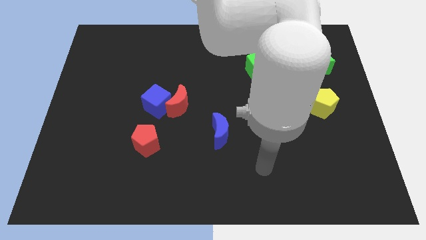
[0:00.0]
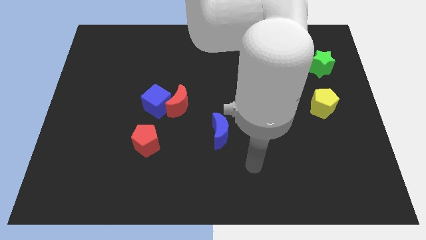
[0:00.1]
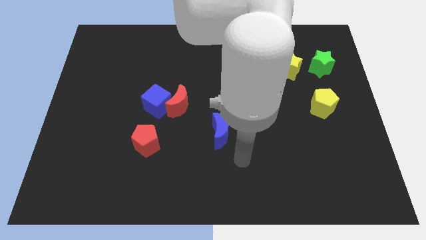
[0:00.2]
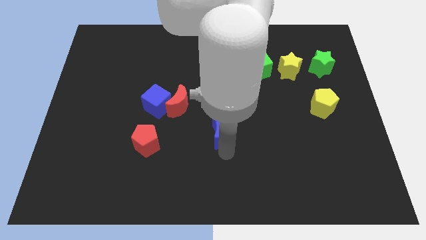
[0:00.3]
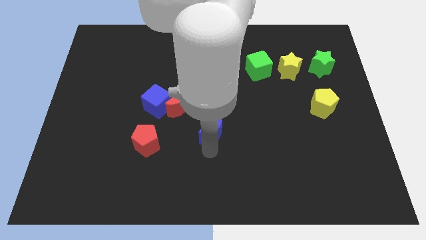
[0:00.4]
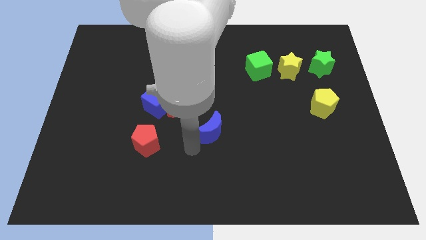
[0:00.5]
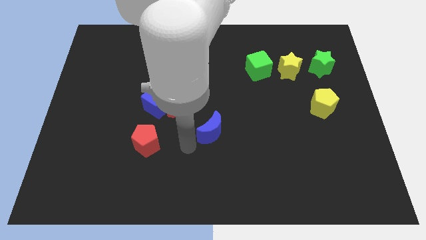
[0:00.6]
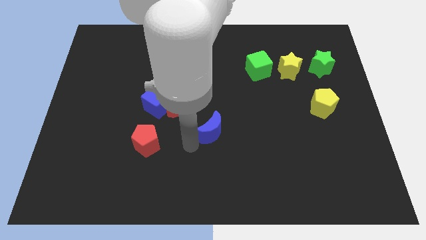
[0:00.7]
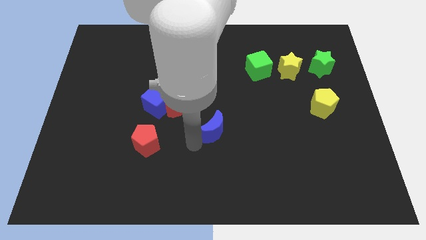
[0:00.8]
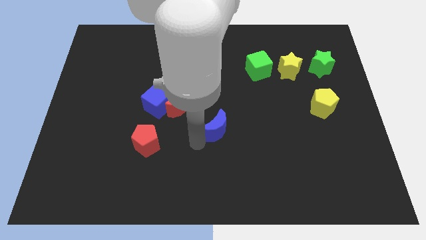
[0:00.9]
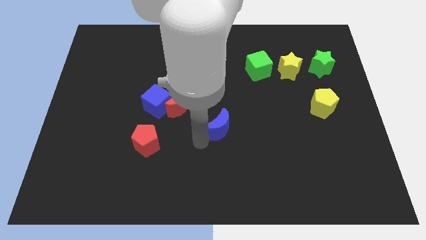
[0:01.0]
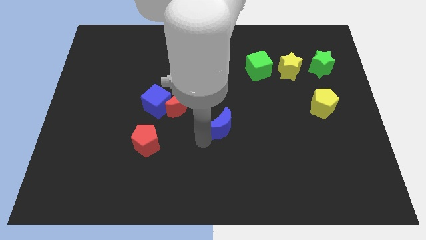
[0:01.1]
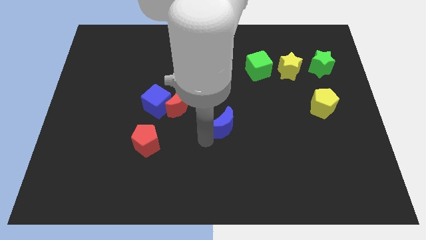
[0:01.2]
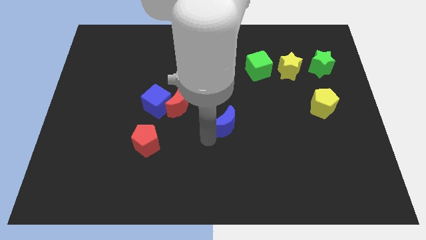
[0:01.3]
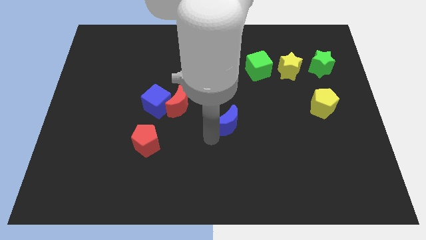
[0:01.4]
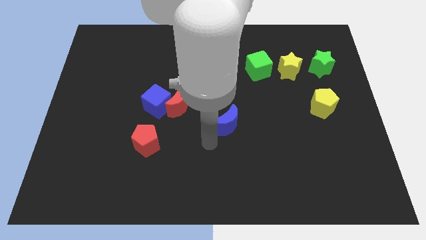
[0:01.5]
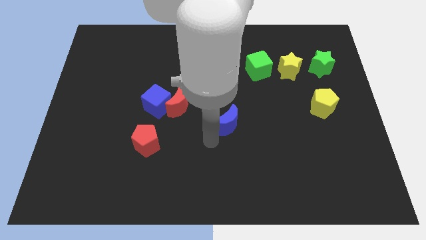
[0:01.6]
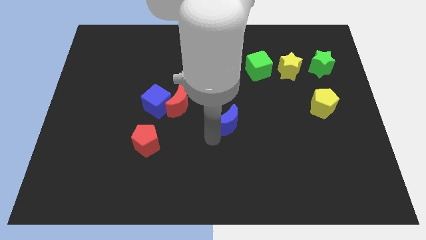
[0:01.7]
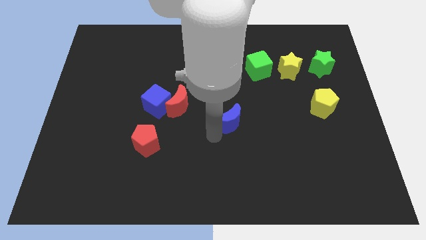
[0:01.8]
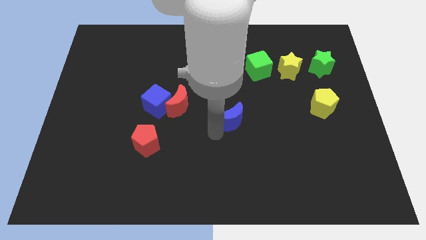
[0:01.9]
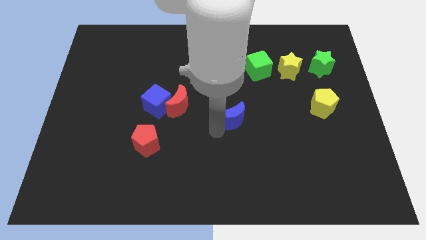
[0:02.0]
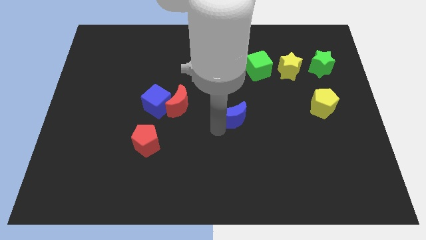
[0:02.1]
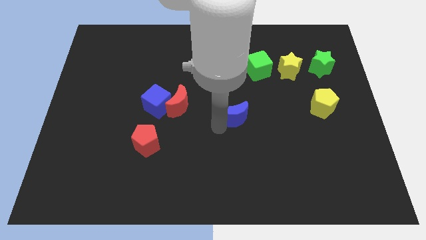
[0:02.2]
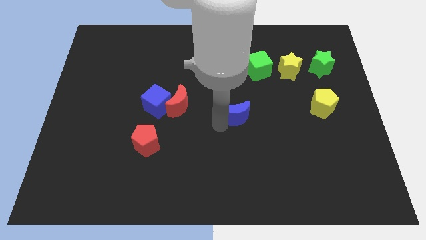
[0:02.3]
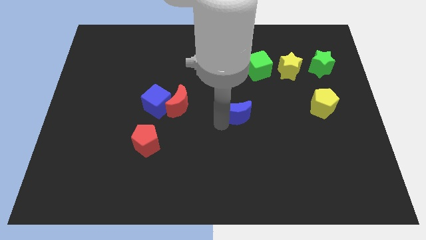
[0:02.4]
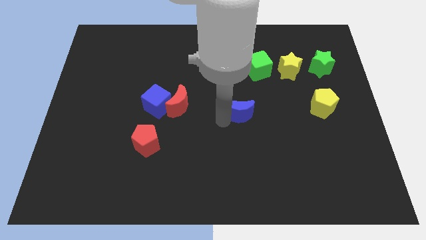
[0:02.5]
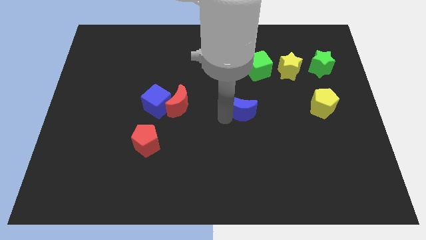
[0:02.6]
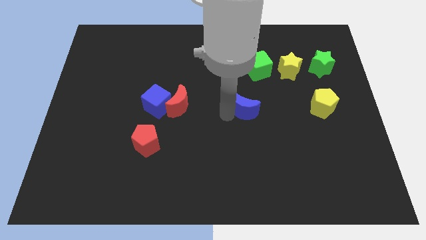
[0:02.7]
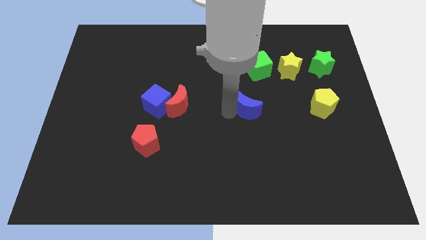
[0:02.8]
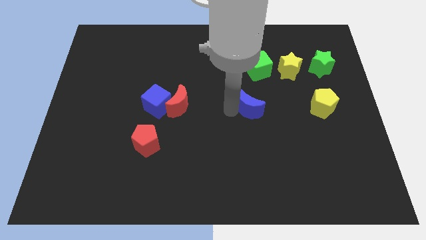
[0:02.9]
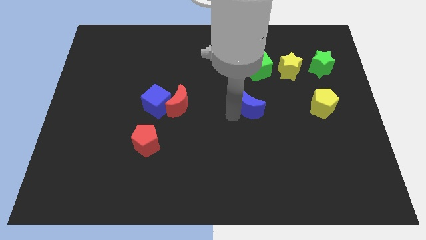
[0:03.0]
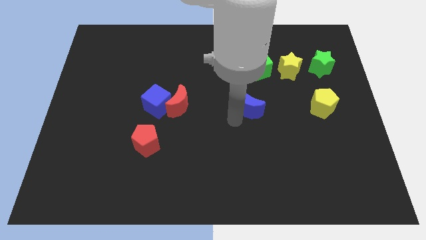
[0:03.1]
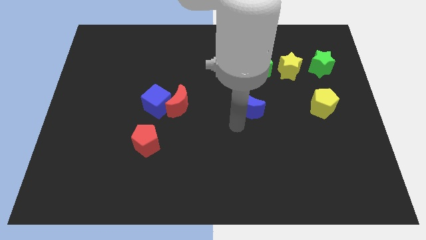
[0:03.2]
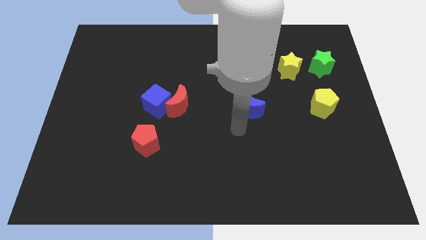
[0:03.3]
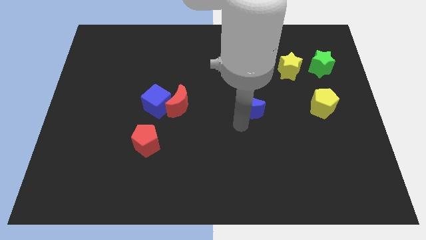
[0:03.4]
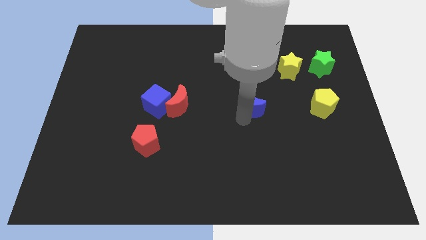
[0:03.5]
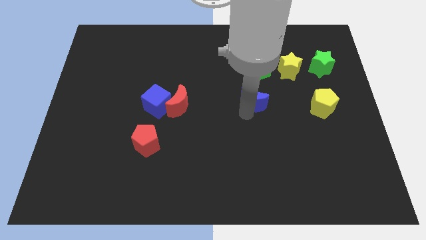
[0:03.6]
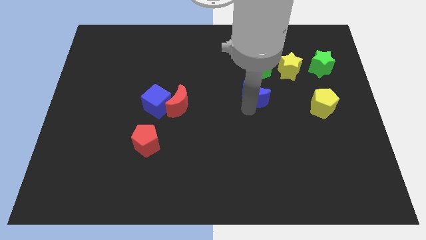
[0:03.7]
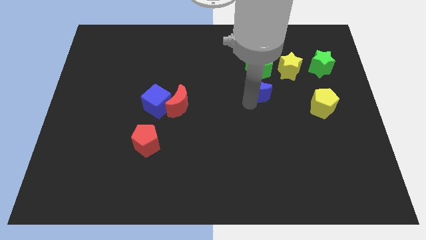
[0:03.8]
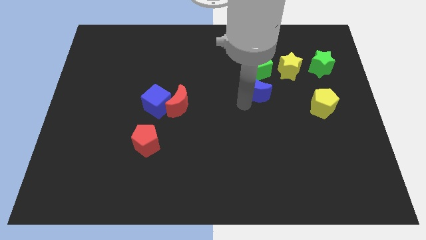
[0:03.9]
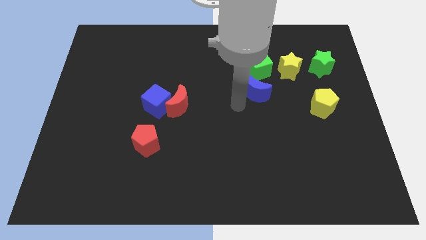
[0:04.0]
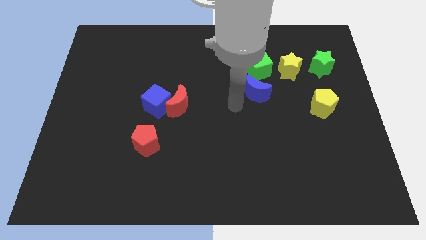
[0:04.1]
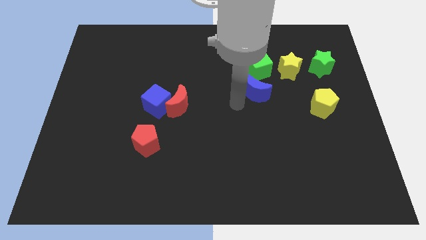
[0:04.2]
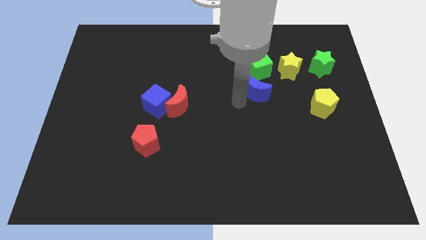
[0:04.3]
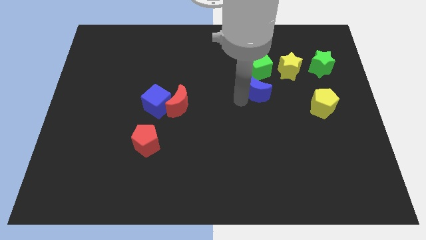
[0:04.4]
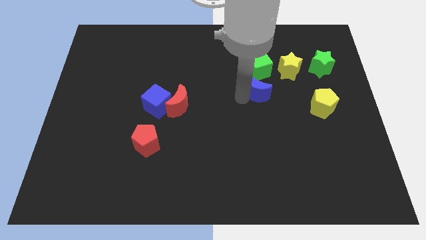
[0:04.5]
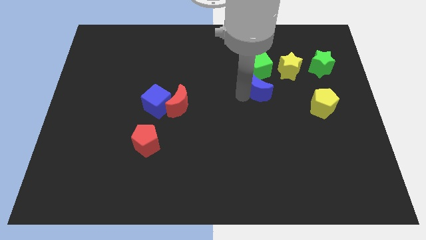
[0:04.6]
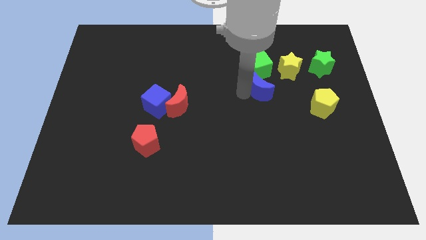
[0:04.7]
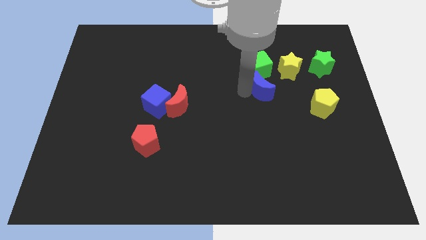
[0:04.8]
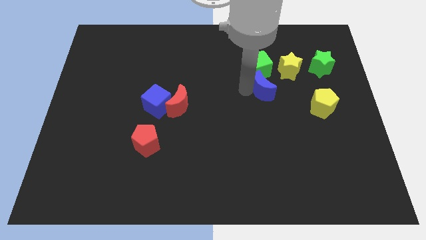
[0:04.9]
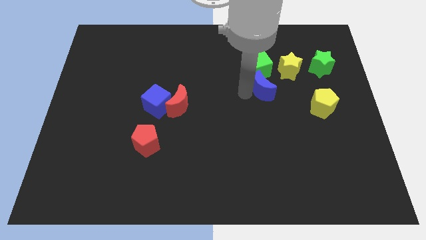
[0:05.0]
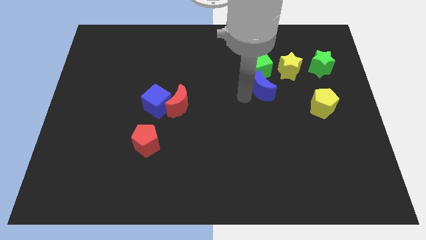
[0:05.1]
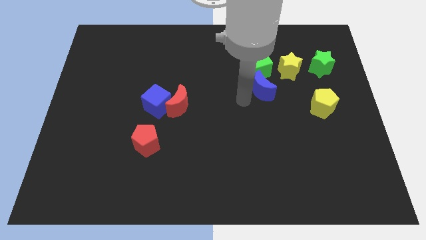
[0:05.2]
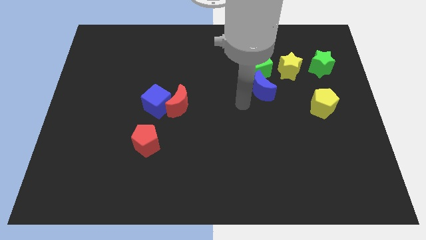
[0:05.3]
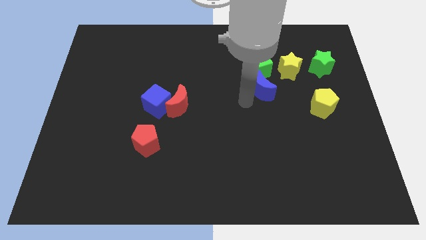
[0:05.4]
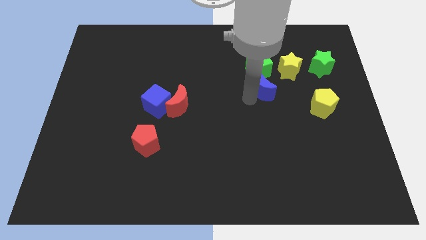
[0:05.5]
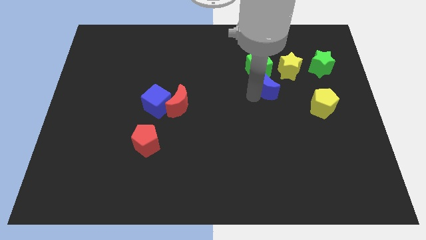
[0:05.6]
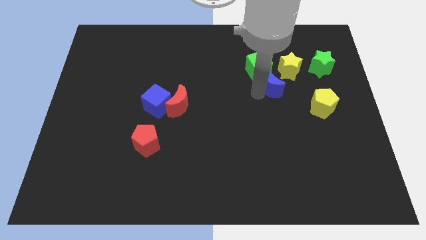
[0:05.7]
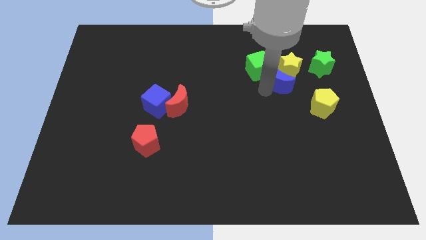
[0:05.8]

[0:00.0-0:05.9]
put the blue moon towards the yellow star

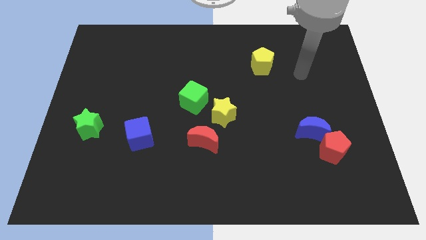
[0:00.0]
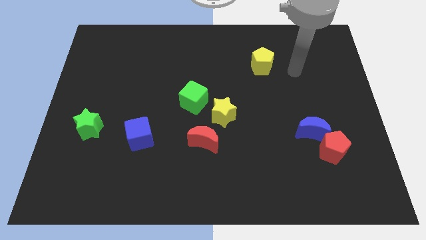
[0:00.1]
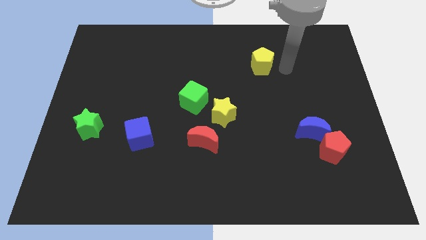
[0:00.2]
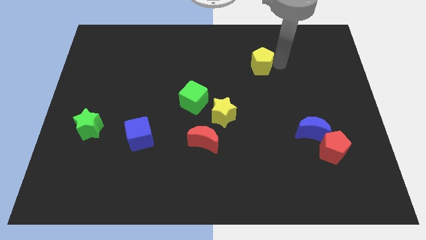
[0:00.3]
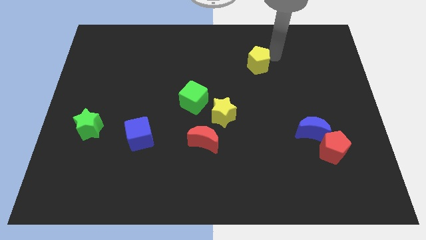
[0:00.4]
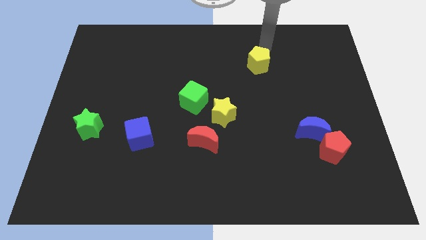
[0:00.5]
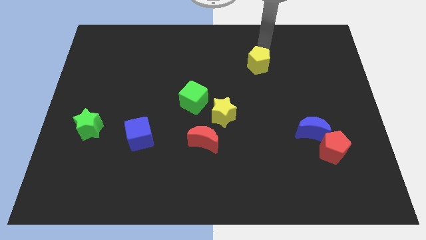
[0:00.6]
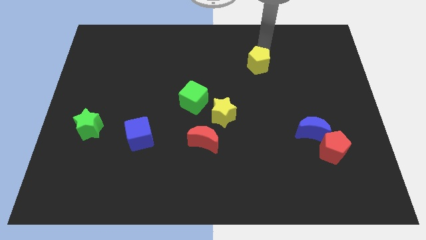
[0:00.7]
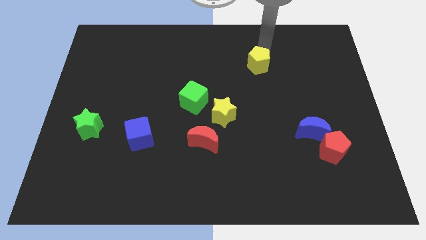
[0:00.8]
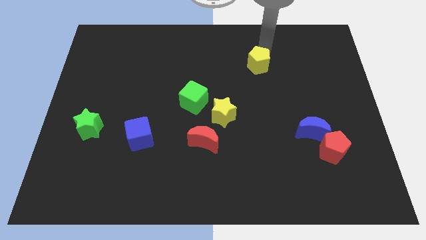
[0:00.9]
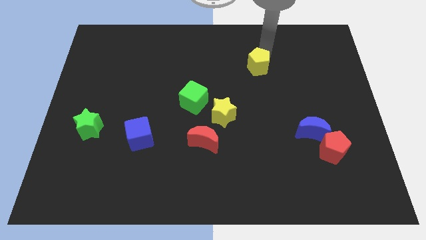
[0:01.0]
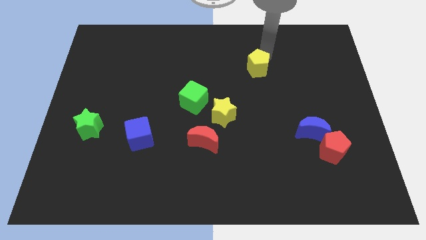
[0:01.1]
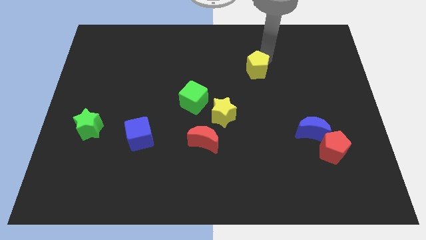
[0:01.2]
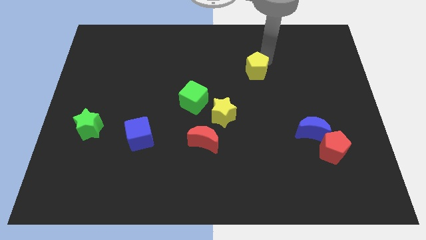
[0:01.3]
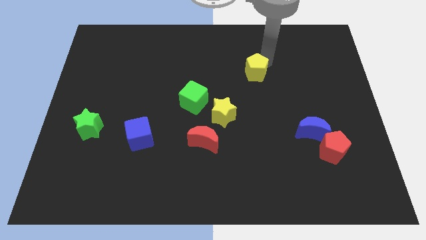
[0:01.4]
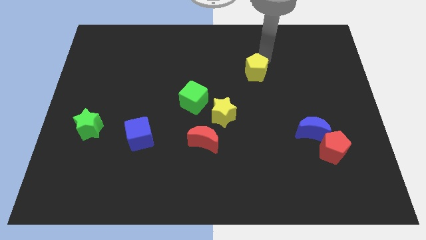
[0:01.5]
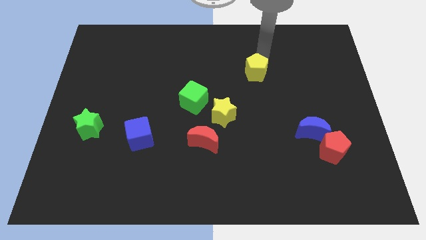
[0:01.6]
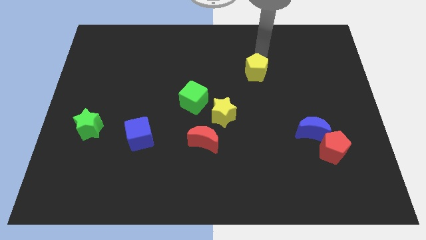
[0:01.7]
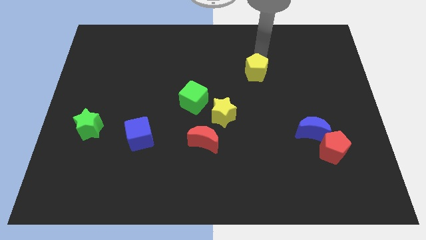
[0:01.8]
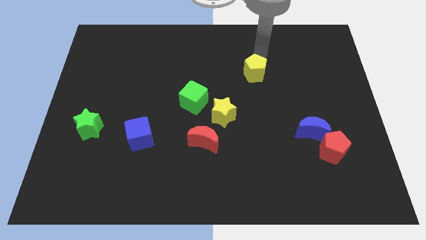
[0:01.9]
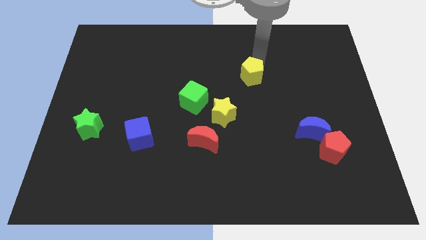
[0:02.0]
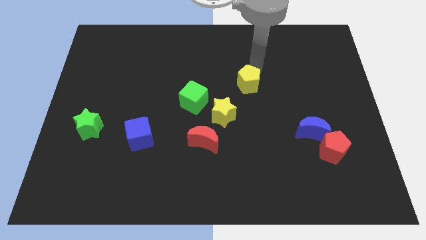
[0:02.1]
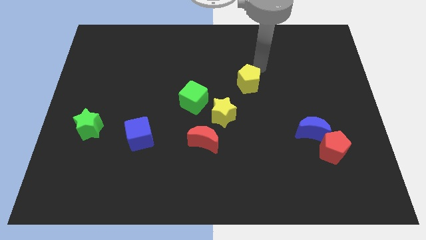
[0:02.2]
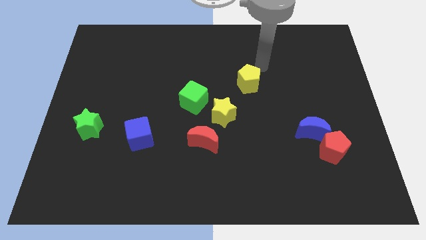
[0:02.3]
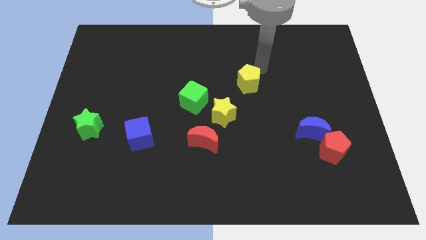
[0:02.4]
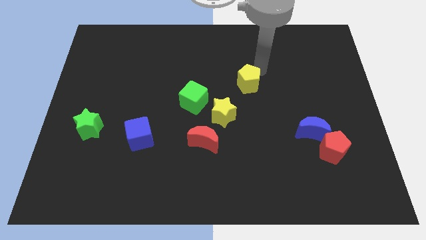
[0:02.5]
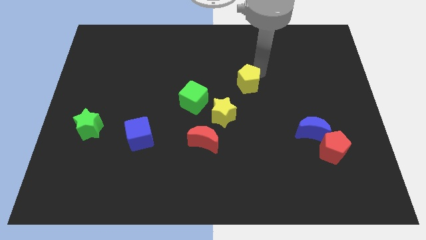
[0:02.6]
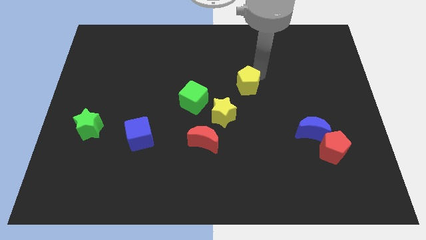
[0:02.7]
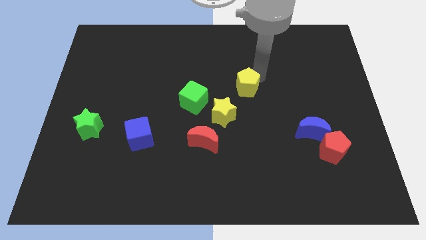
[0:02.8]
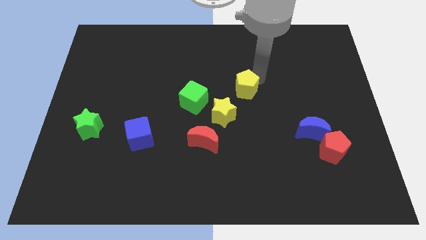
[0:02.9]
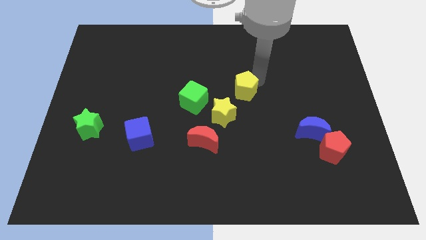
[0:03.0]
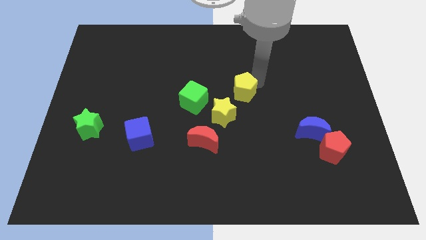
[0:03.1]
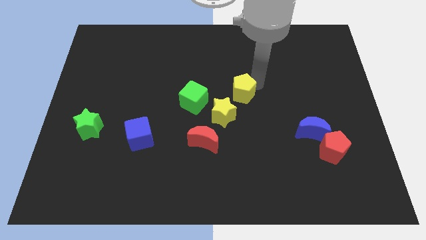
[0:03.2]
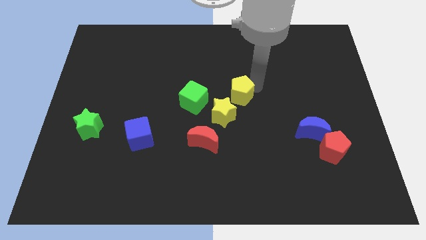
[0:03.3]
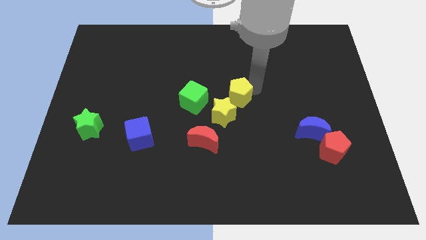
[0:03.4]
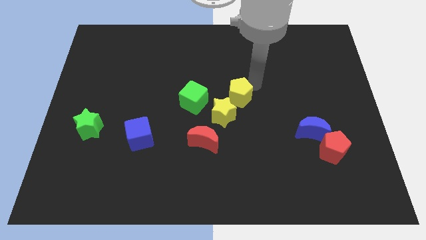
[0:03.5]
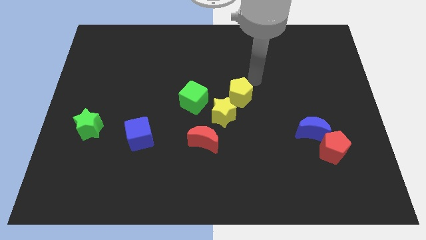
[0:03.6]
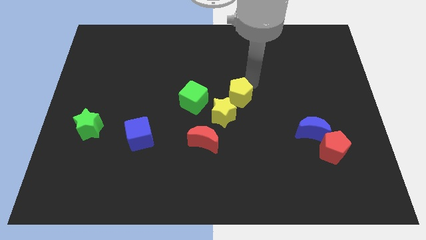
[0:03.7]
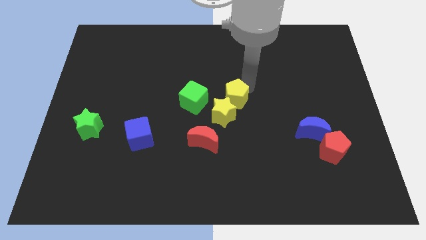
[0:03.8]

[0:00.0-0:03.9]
put the yellow pentagon next to the yellow star
